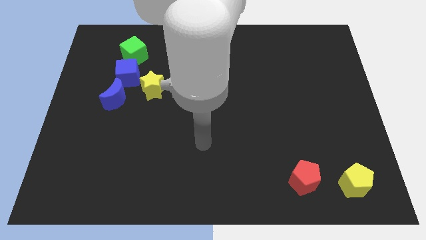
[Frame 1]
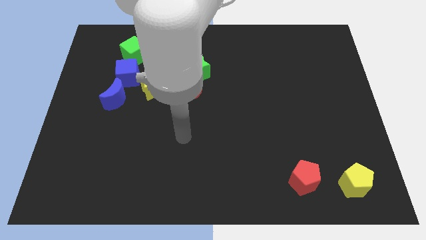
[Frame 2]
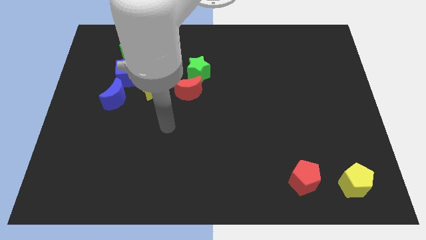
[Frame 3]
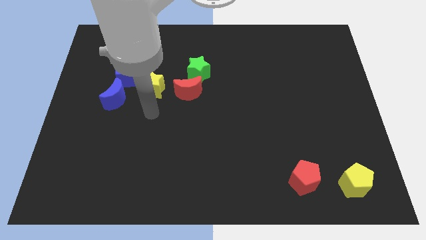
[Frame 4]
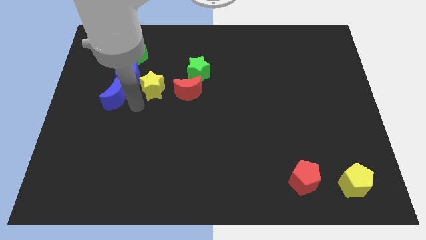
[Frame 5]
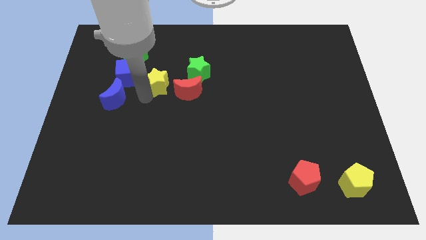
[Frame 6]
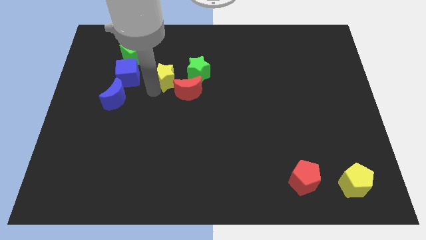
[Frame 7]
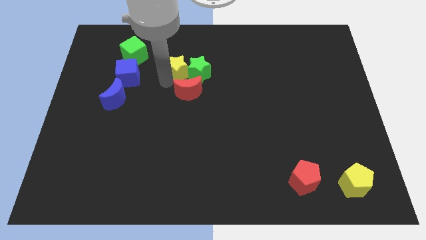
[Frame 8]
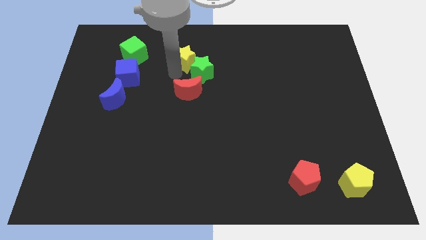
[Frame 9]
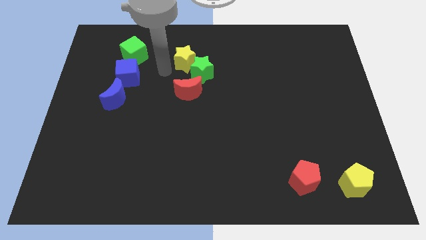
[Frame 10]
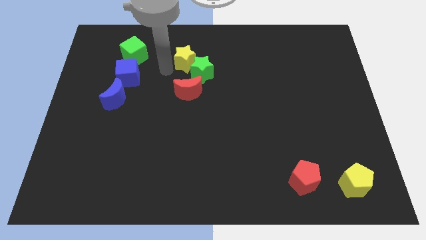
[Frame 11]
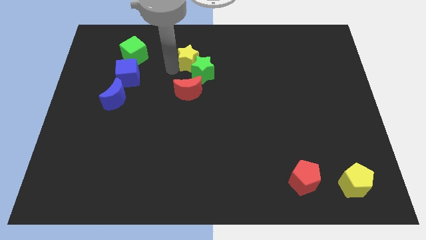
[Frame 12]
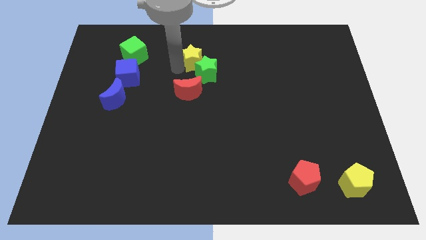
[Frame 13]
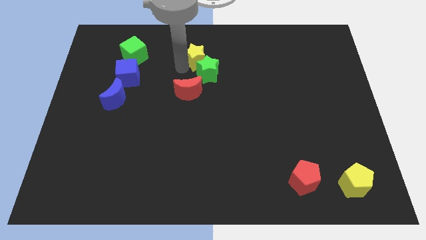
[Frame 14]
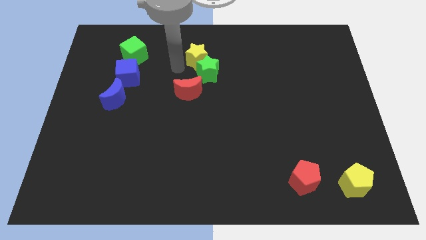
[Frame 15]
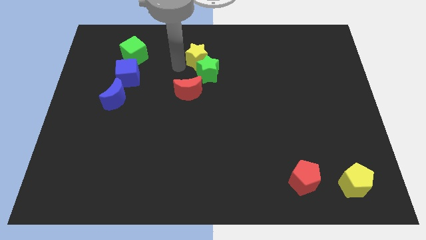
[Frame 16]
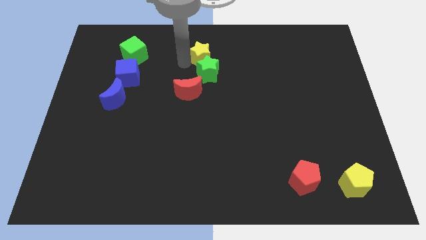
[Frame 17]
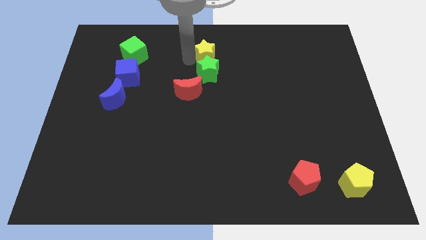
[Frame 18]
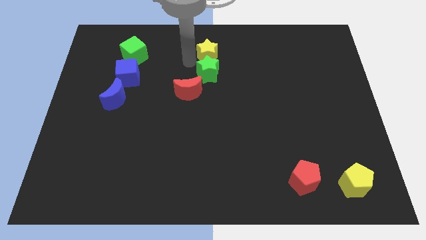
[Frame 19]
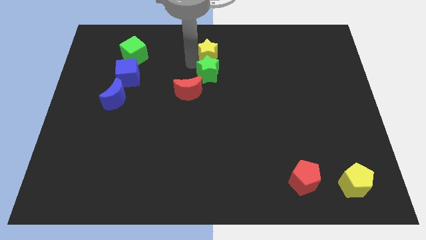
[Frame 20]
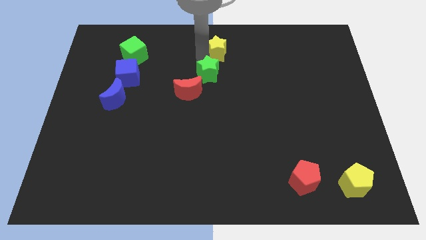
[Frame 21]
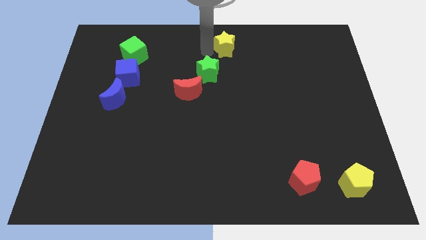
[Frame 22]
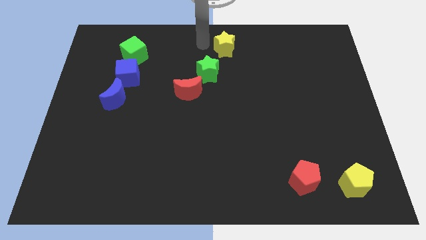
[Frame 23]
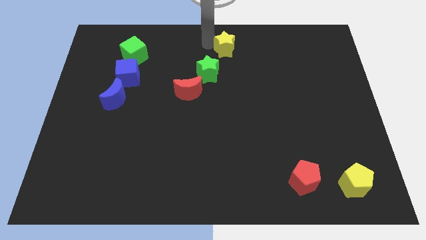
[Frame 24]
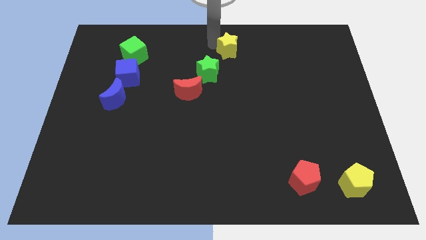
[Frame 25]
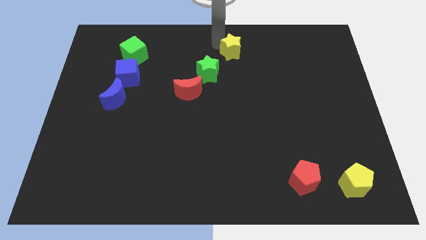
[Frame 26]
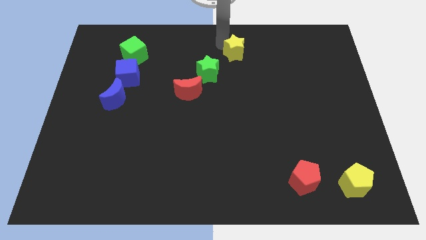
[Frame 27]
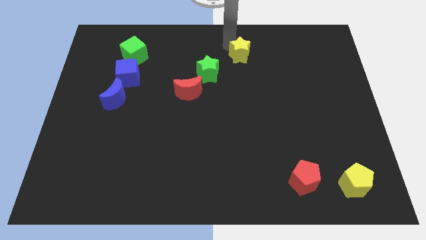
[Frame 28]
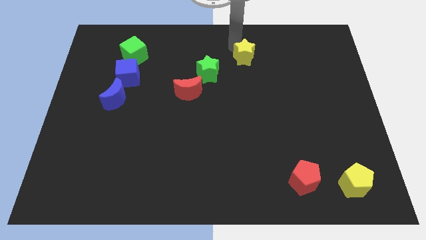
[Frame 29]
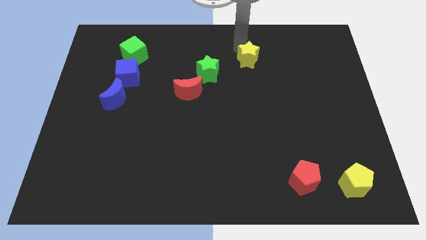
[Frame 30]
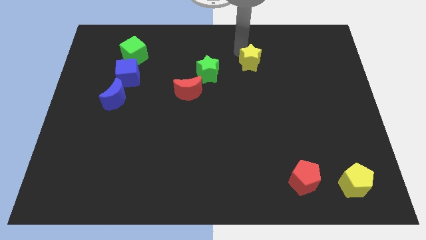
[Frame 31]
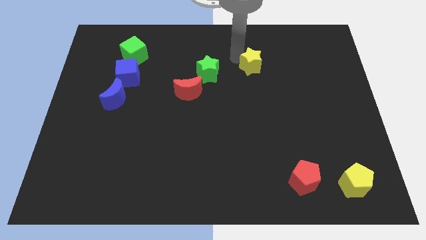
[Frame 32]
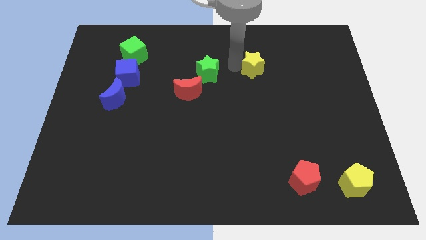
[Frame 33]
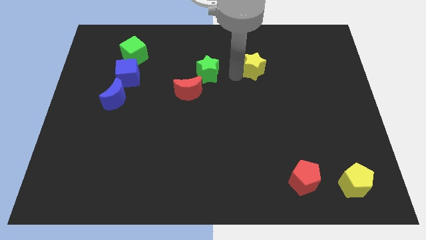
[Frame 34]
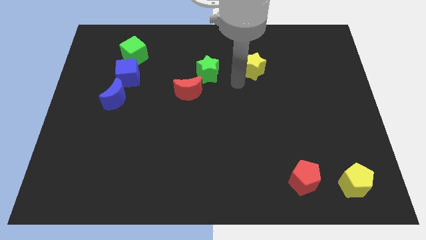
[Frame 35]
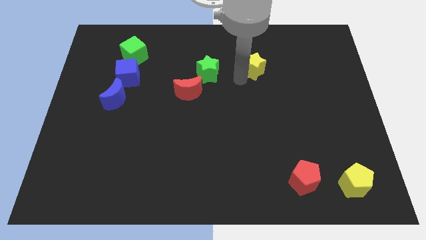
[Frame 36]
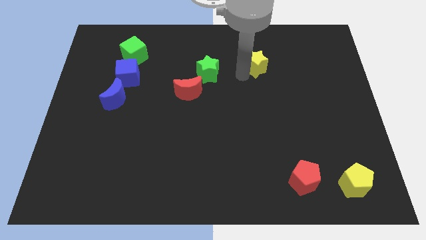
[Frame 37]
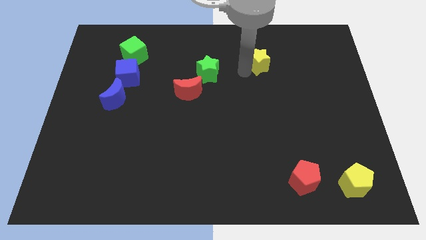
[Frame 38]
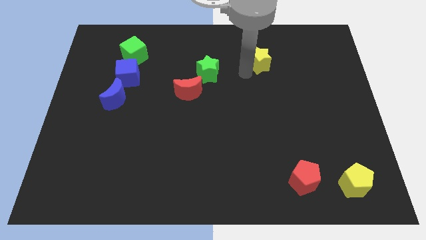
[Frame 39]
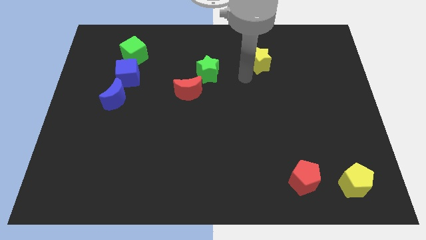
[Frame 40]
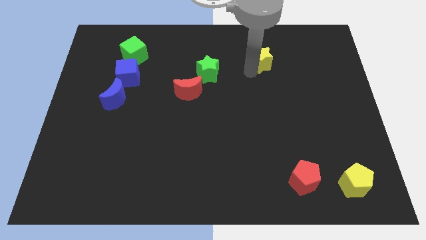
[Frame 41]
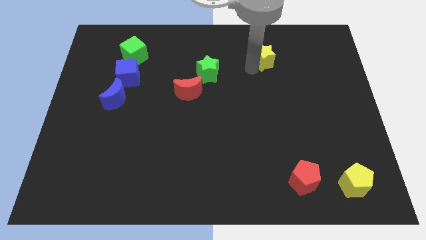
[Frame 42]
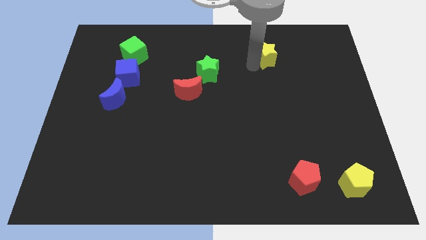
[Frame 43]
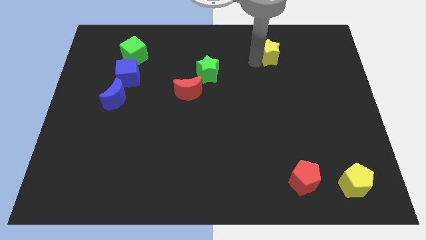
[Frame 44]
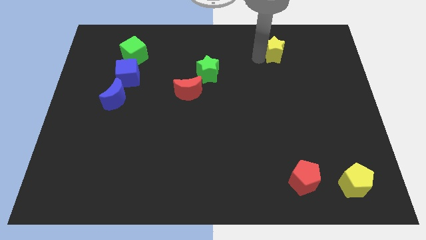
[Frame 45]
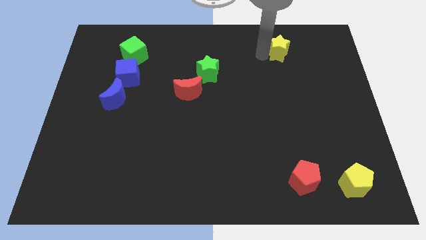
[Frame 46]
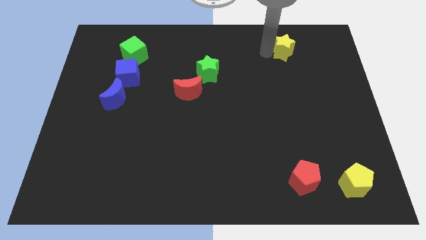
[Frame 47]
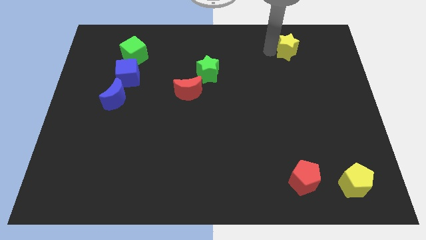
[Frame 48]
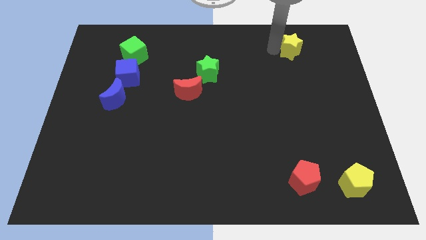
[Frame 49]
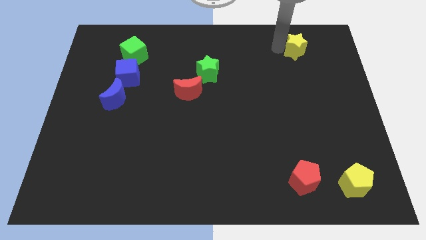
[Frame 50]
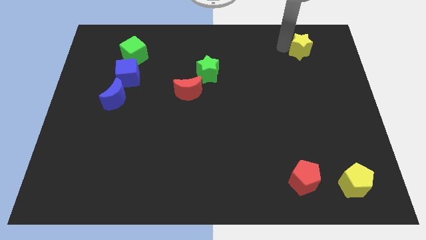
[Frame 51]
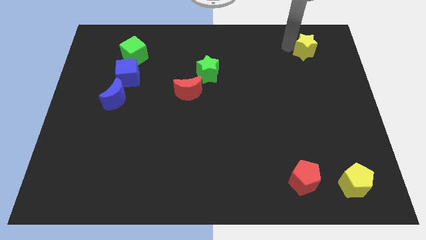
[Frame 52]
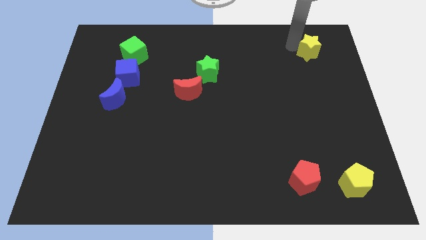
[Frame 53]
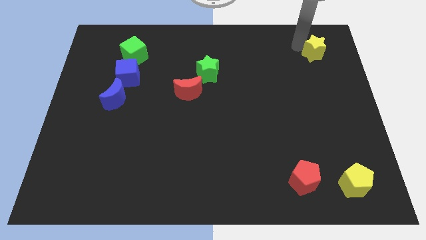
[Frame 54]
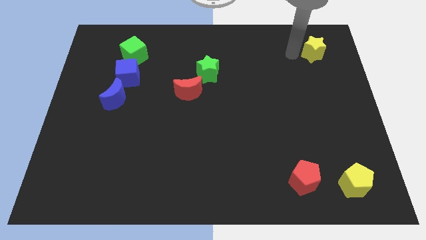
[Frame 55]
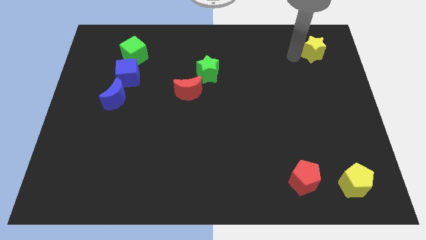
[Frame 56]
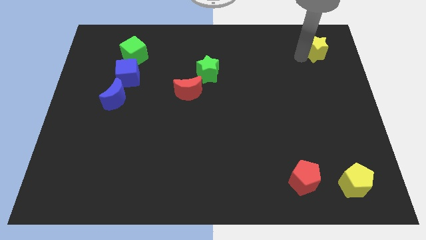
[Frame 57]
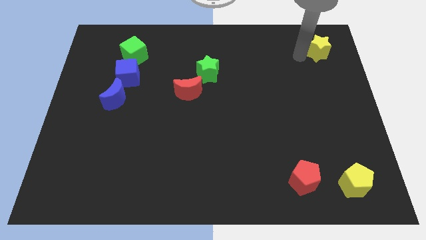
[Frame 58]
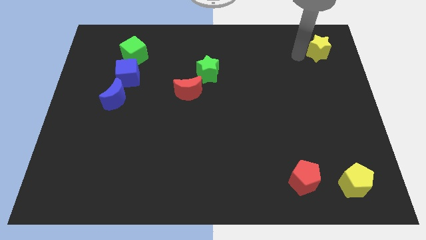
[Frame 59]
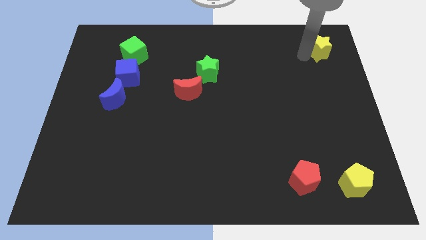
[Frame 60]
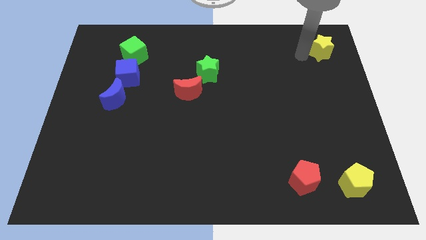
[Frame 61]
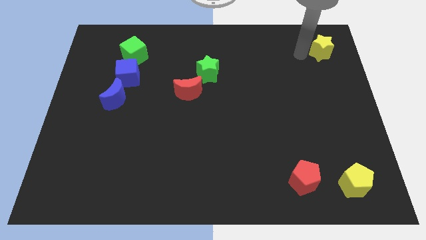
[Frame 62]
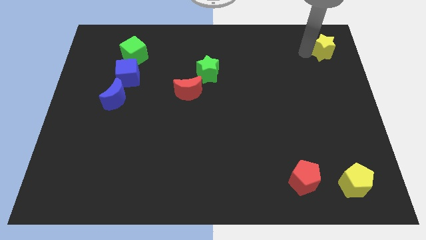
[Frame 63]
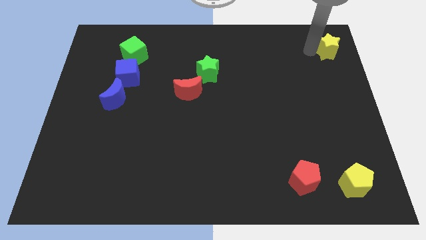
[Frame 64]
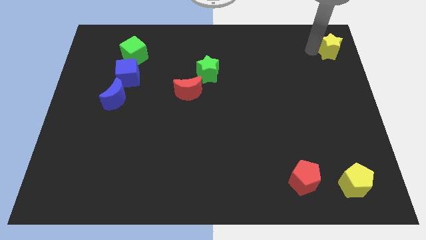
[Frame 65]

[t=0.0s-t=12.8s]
move the yellow star to the top right
